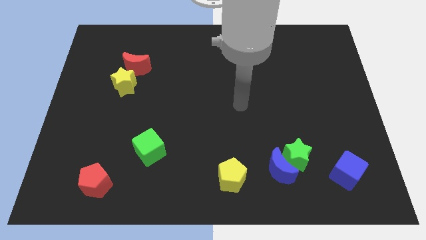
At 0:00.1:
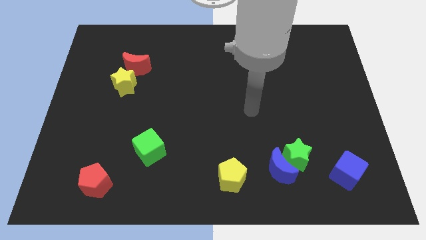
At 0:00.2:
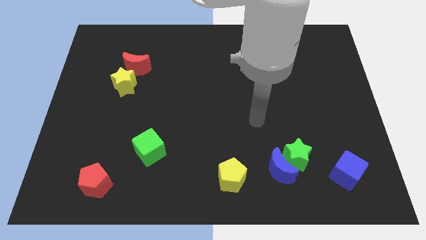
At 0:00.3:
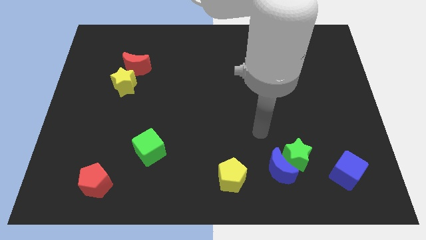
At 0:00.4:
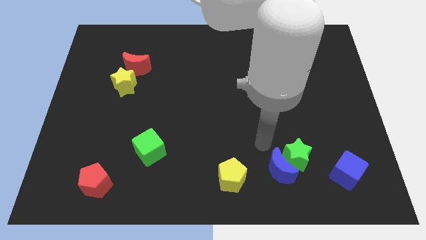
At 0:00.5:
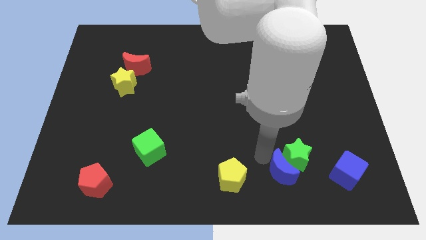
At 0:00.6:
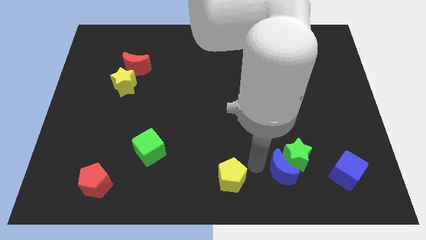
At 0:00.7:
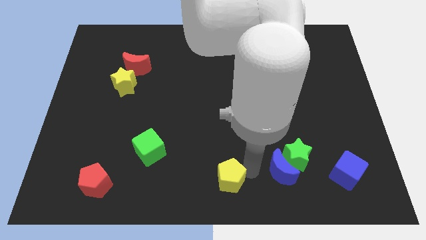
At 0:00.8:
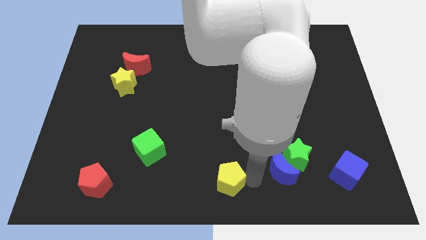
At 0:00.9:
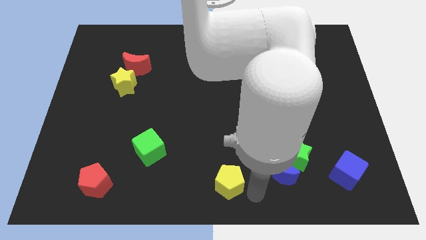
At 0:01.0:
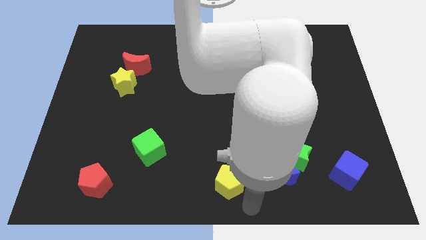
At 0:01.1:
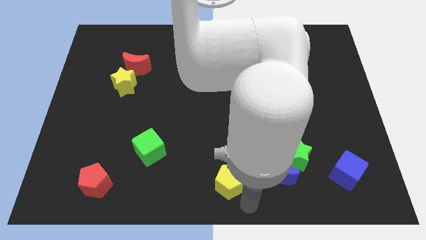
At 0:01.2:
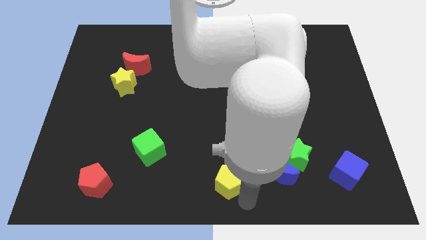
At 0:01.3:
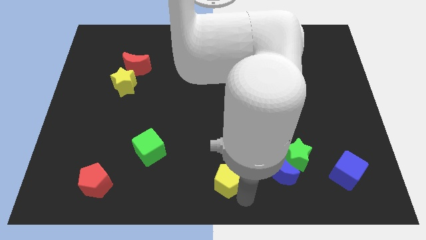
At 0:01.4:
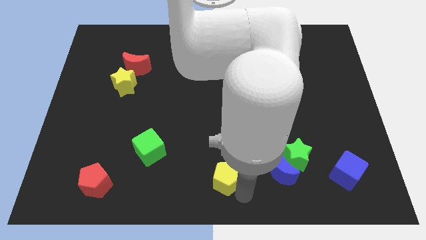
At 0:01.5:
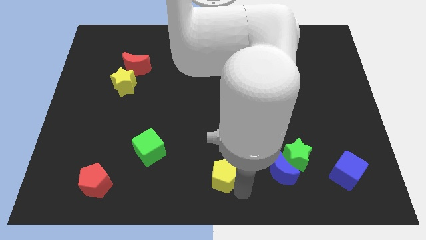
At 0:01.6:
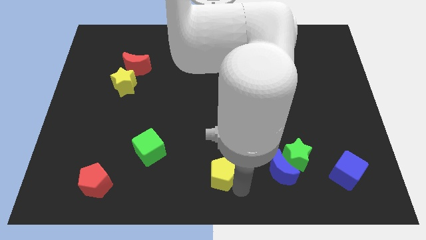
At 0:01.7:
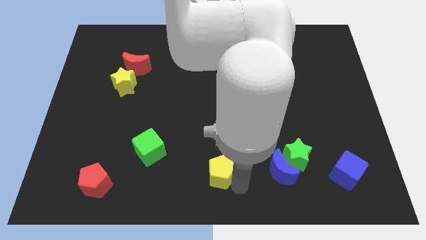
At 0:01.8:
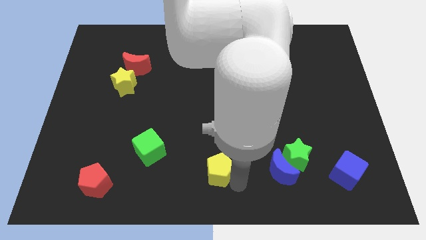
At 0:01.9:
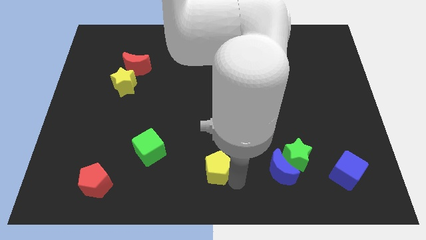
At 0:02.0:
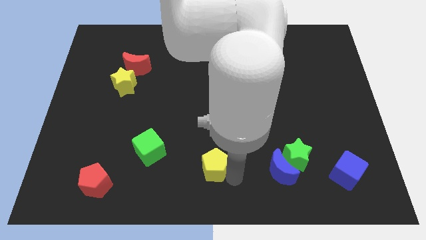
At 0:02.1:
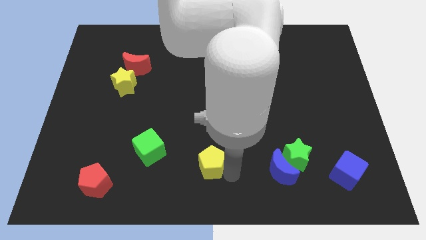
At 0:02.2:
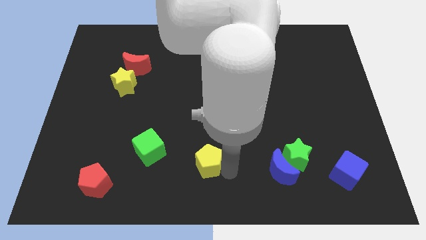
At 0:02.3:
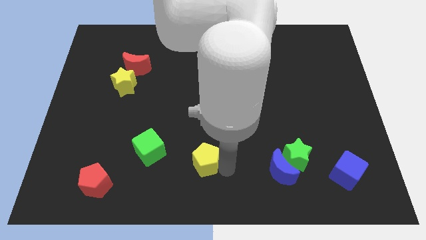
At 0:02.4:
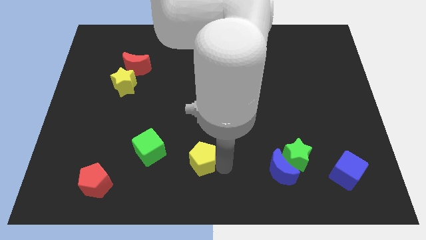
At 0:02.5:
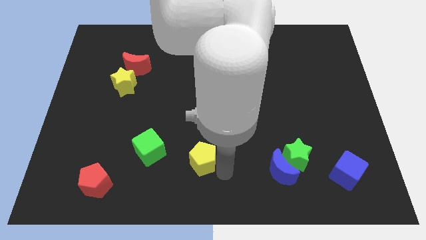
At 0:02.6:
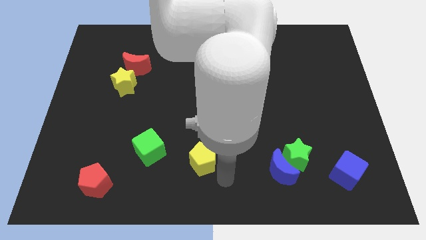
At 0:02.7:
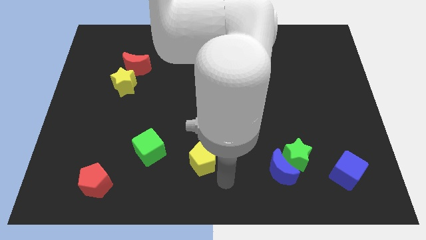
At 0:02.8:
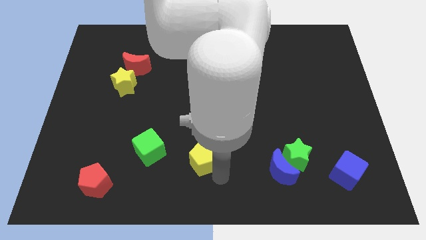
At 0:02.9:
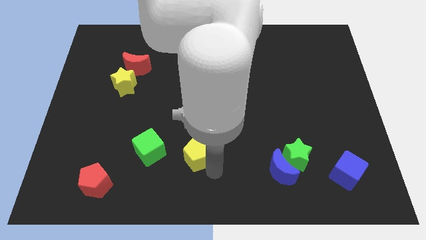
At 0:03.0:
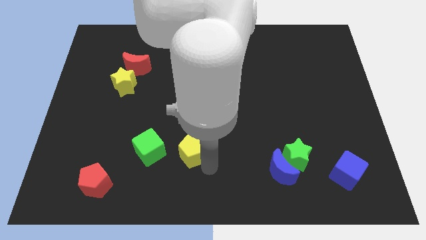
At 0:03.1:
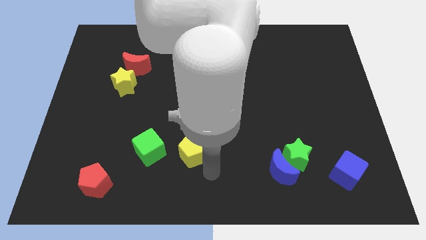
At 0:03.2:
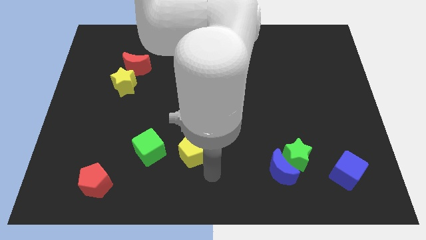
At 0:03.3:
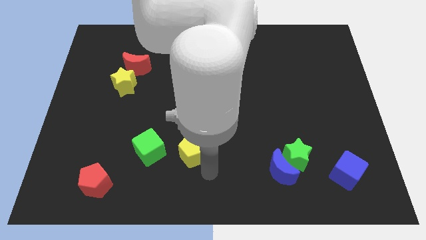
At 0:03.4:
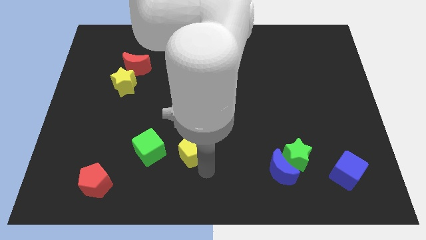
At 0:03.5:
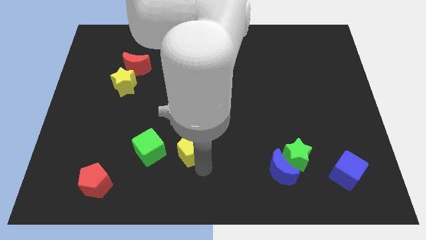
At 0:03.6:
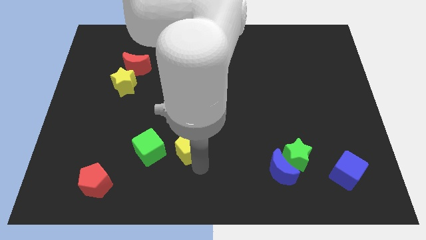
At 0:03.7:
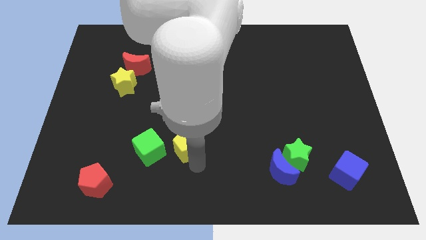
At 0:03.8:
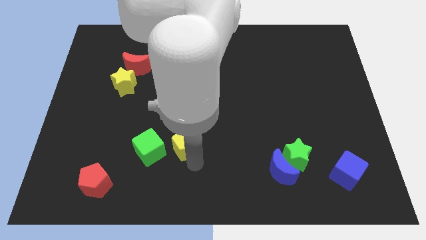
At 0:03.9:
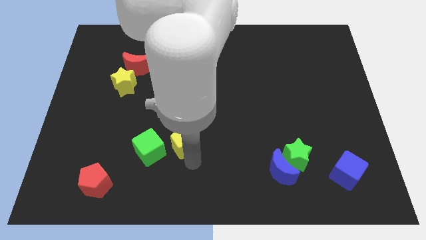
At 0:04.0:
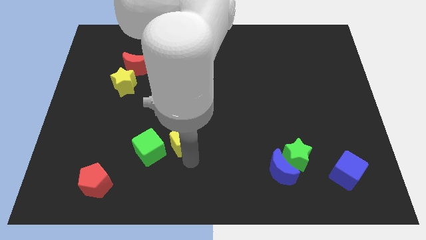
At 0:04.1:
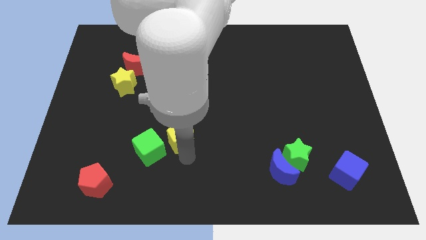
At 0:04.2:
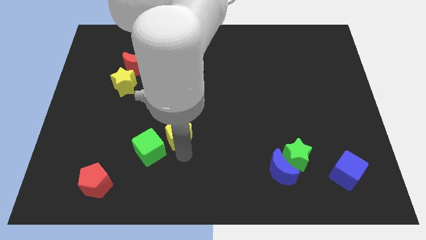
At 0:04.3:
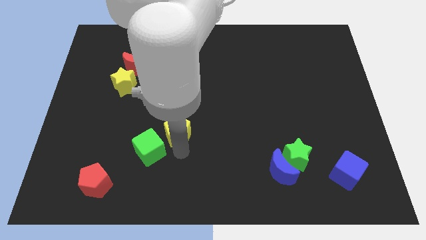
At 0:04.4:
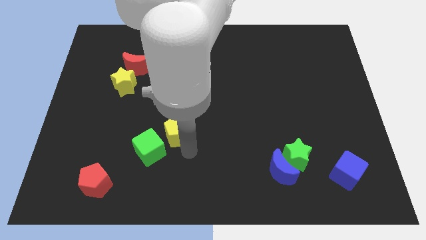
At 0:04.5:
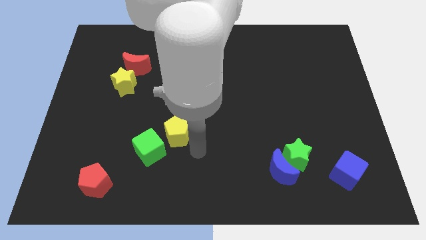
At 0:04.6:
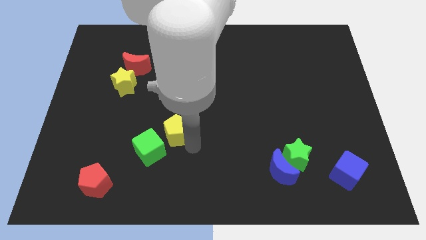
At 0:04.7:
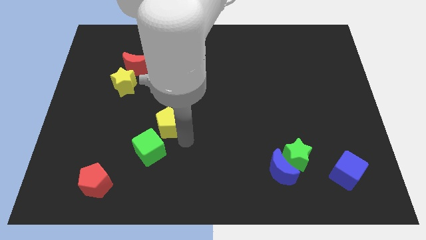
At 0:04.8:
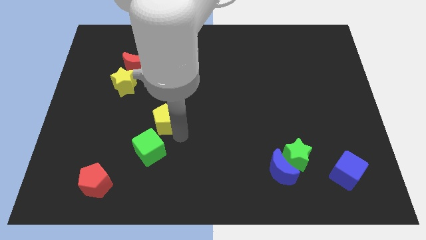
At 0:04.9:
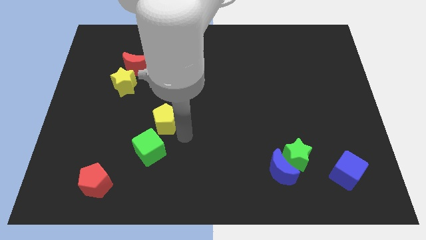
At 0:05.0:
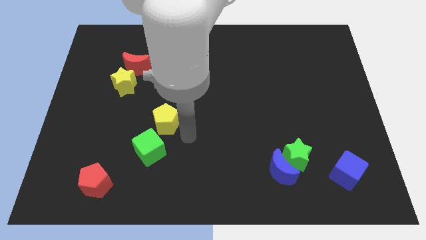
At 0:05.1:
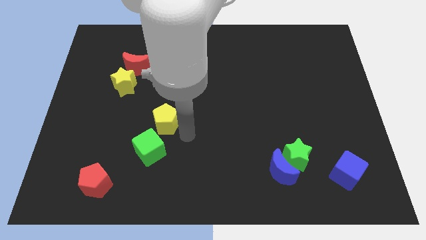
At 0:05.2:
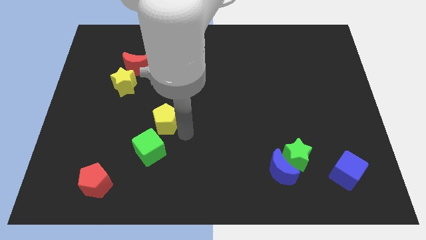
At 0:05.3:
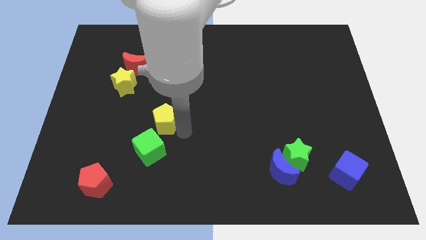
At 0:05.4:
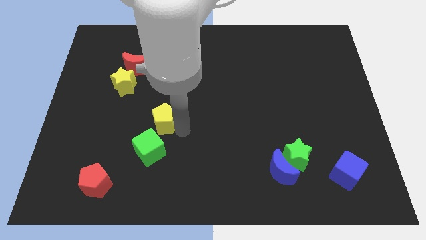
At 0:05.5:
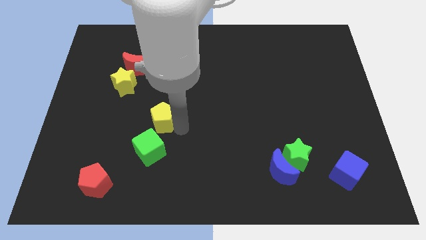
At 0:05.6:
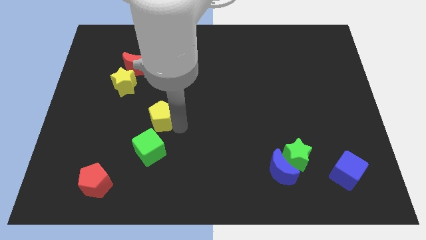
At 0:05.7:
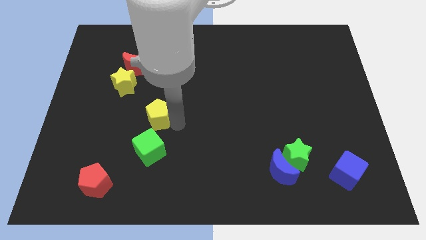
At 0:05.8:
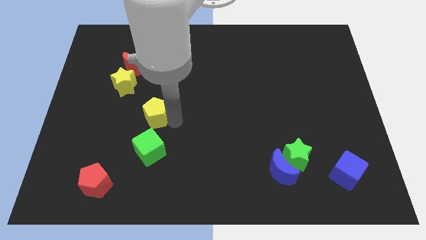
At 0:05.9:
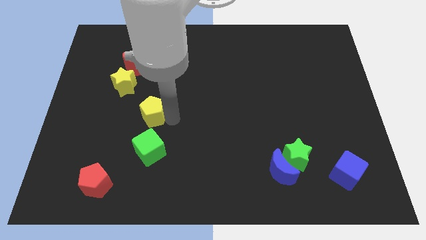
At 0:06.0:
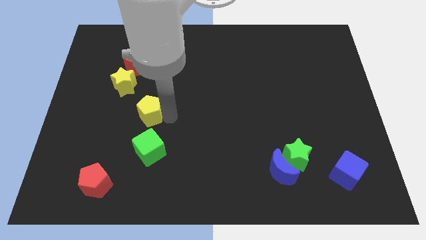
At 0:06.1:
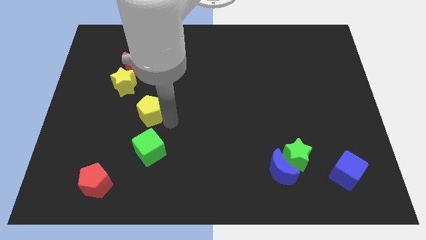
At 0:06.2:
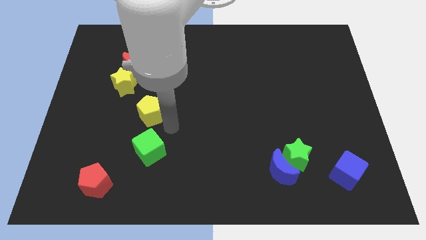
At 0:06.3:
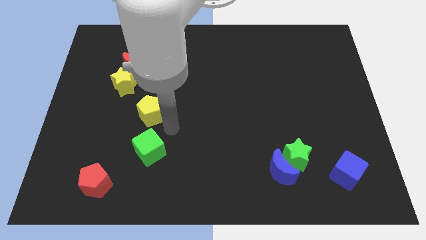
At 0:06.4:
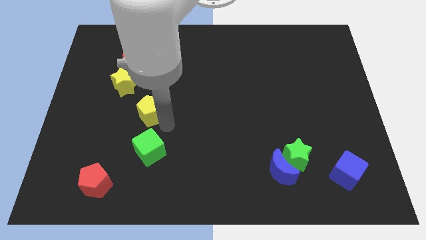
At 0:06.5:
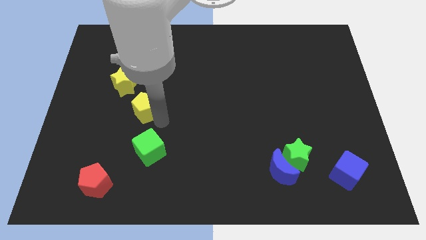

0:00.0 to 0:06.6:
put the yellow pentagon to the bottom of the red moon

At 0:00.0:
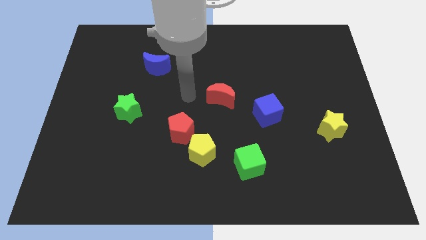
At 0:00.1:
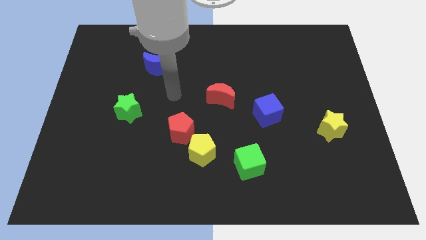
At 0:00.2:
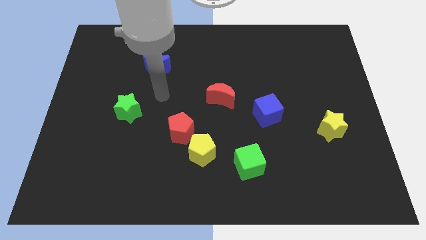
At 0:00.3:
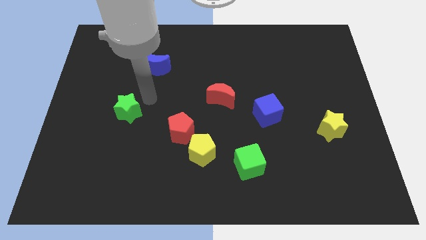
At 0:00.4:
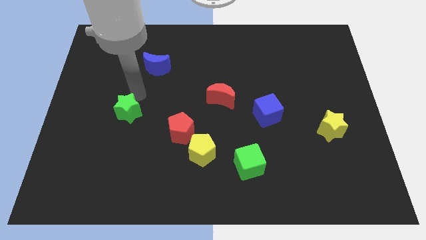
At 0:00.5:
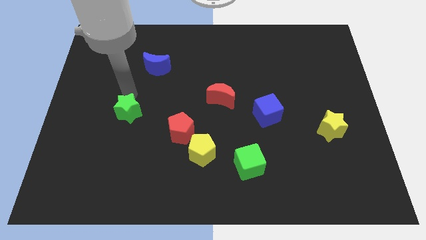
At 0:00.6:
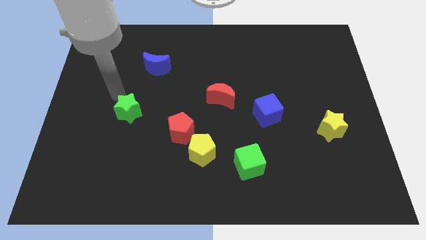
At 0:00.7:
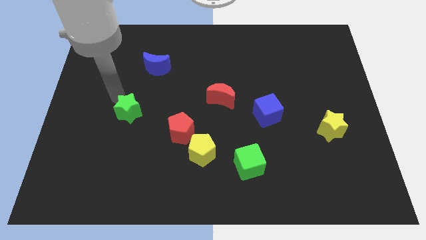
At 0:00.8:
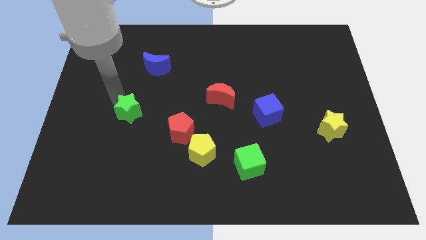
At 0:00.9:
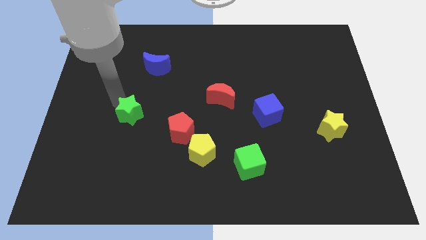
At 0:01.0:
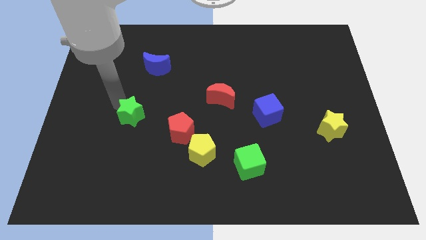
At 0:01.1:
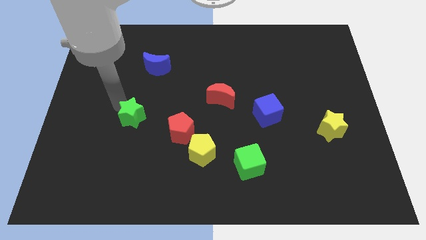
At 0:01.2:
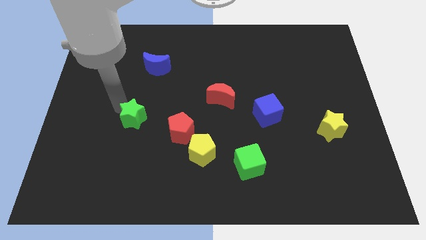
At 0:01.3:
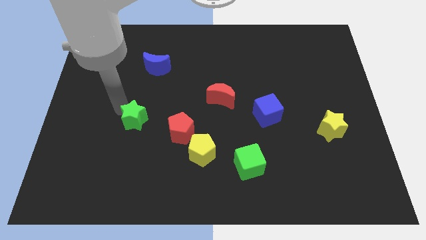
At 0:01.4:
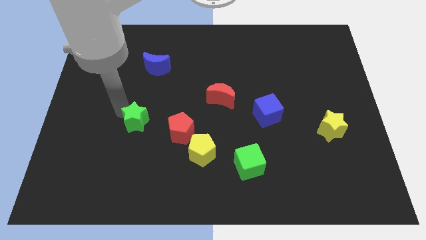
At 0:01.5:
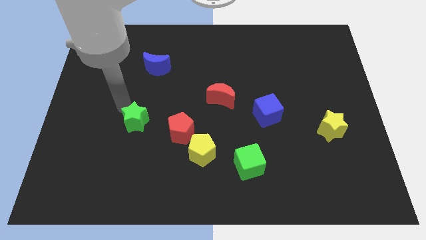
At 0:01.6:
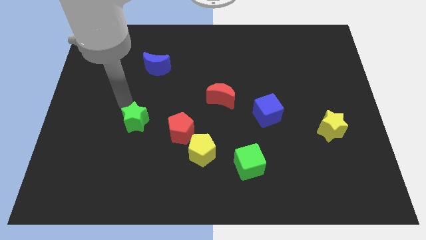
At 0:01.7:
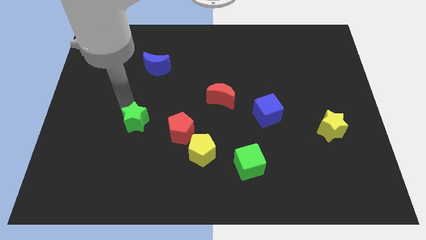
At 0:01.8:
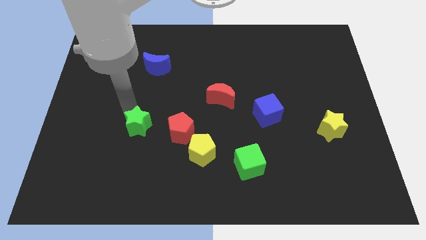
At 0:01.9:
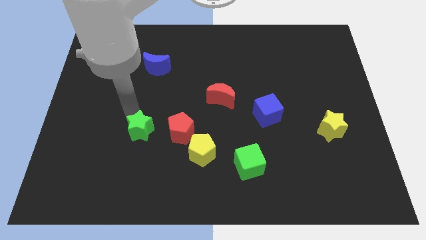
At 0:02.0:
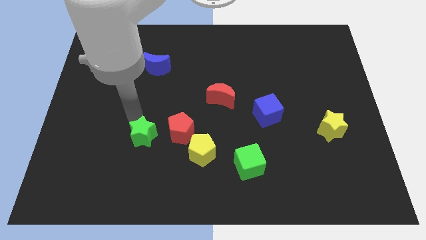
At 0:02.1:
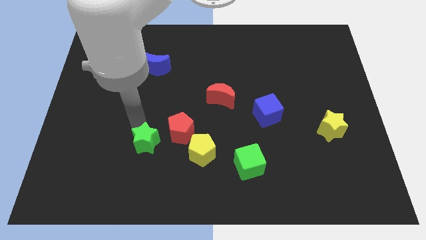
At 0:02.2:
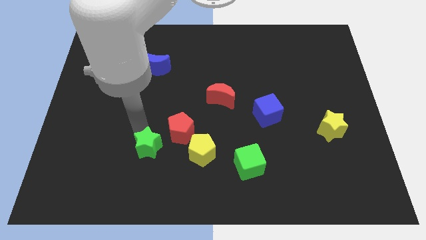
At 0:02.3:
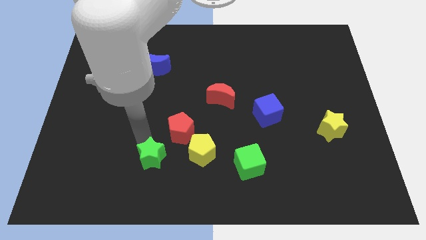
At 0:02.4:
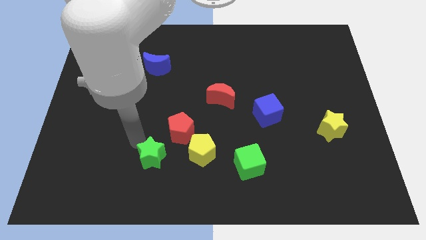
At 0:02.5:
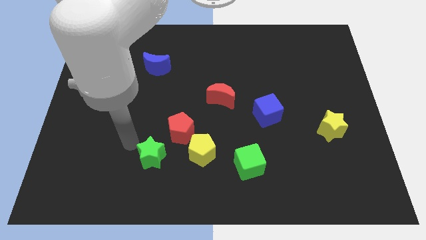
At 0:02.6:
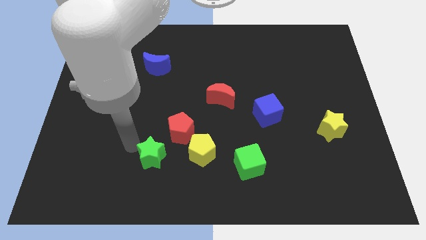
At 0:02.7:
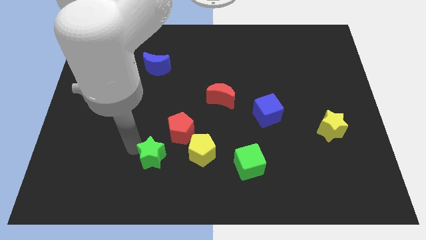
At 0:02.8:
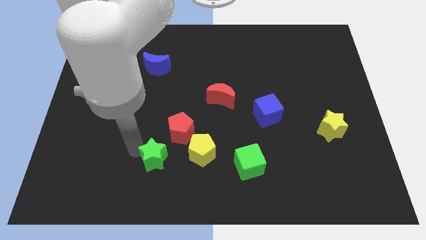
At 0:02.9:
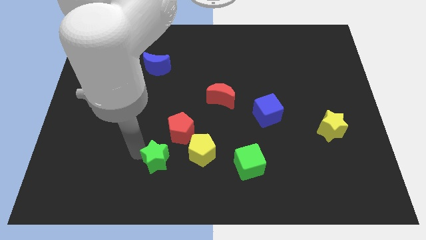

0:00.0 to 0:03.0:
put the green star below the red pentagon
